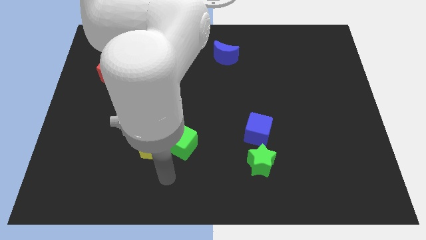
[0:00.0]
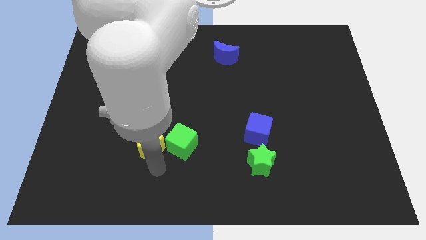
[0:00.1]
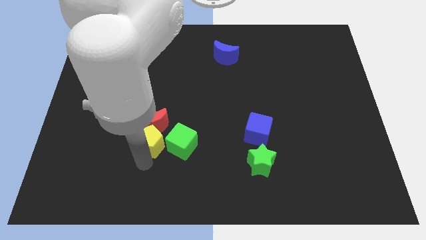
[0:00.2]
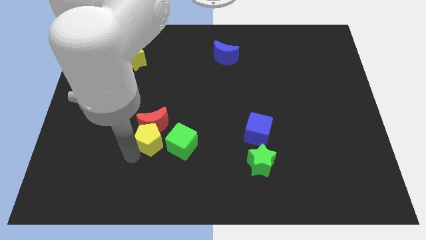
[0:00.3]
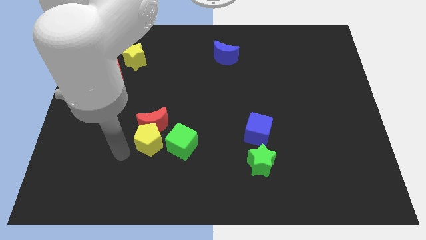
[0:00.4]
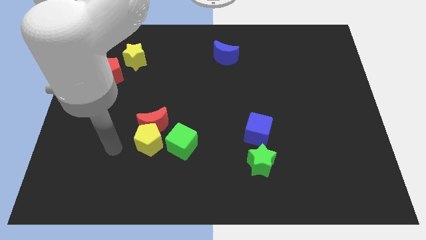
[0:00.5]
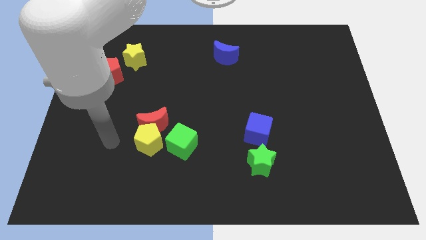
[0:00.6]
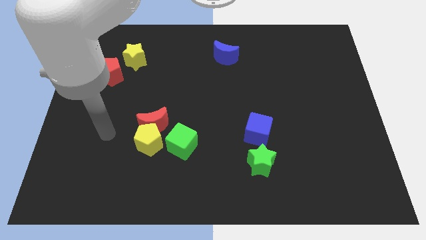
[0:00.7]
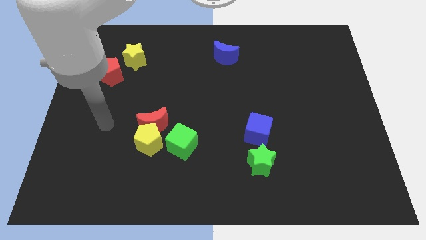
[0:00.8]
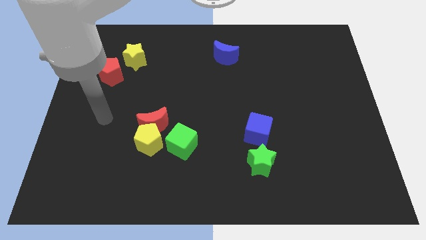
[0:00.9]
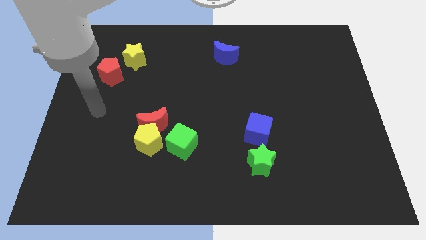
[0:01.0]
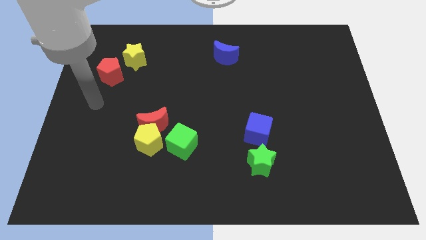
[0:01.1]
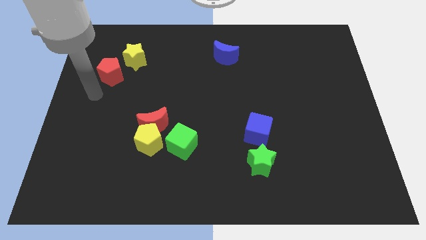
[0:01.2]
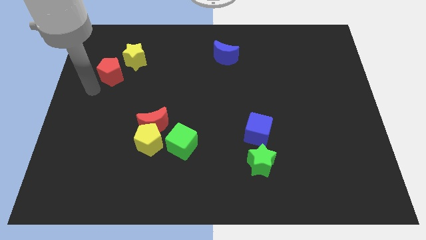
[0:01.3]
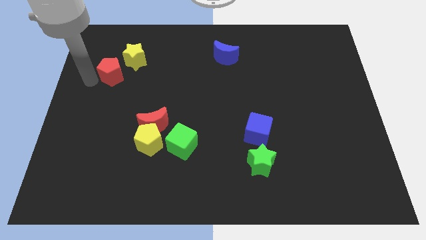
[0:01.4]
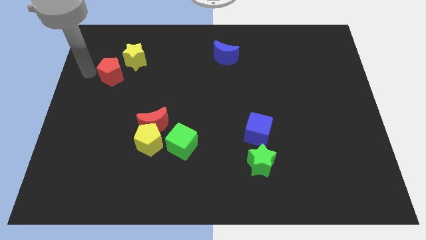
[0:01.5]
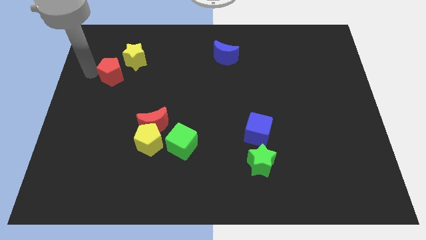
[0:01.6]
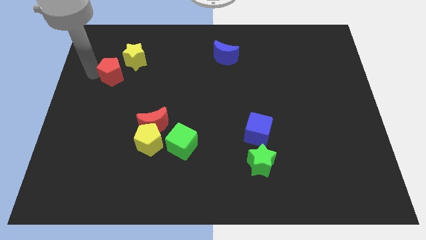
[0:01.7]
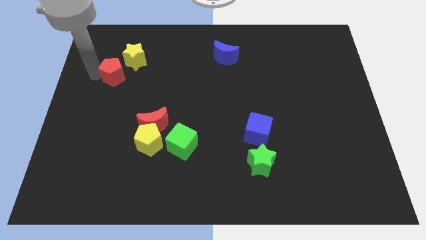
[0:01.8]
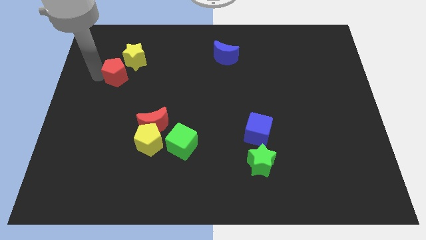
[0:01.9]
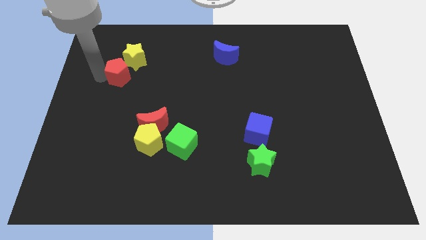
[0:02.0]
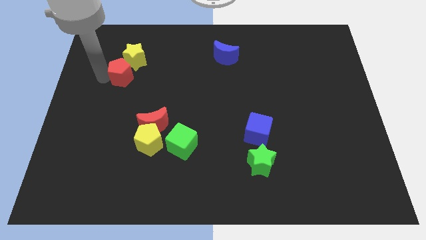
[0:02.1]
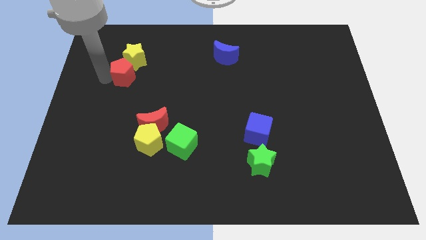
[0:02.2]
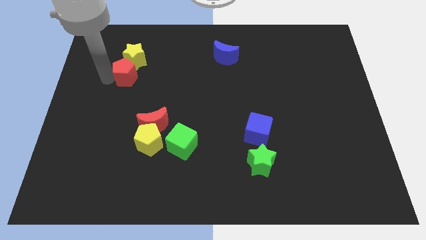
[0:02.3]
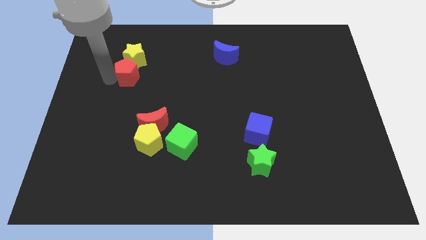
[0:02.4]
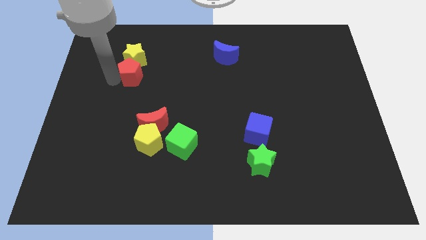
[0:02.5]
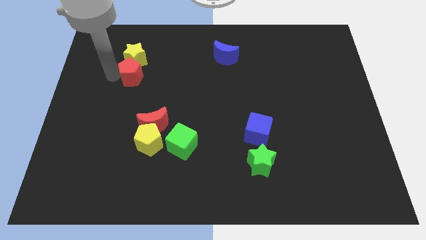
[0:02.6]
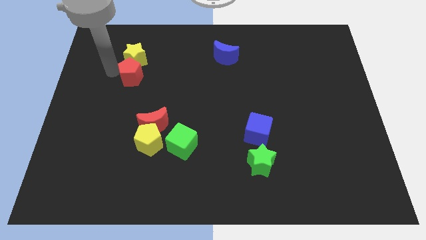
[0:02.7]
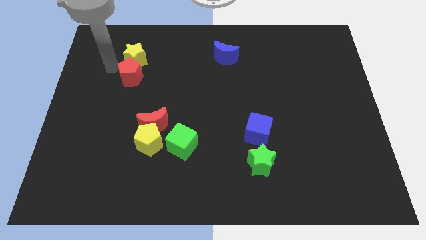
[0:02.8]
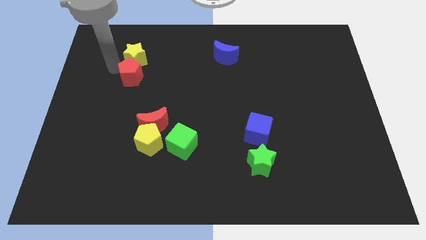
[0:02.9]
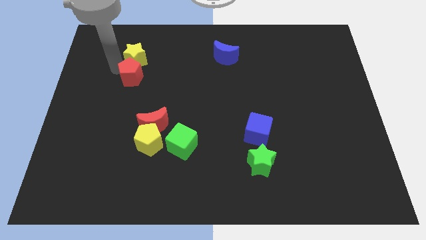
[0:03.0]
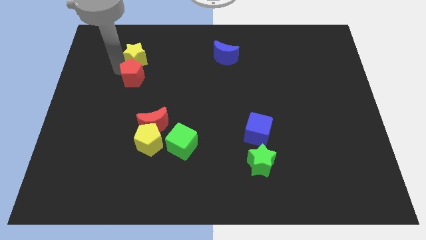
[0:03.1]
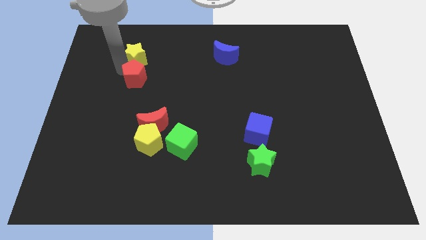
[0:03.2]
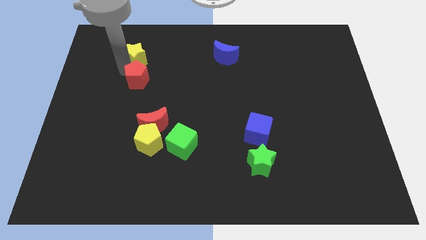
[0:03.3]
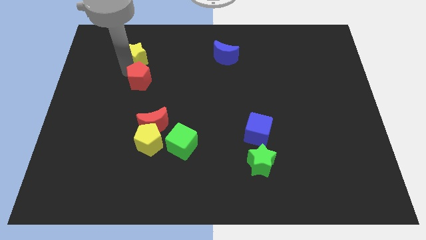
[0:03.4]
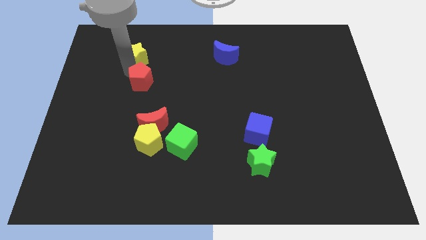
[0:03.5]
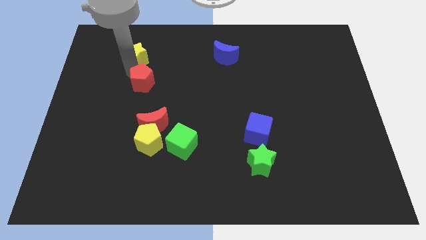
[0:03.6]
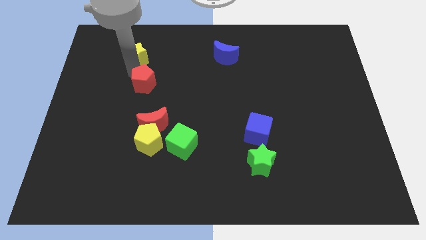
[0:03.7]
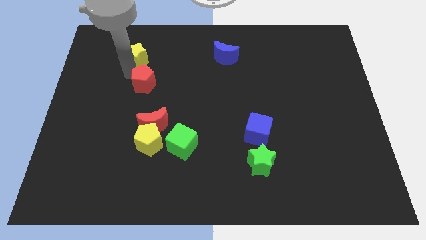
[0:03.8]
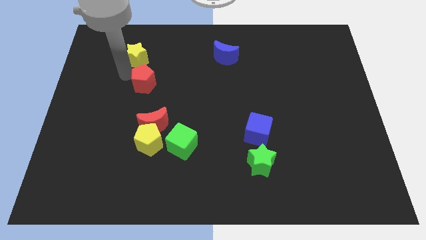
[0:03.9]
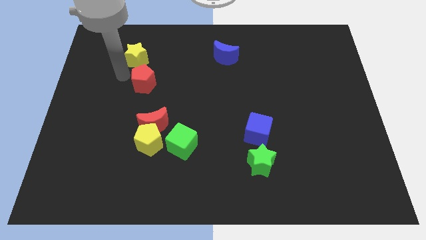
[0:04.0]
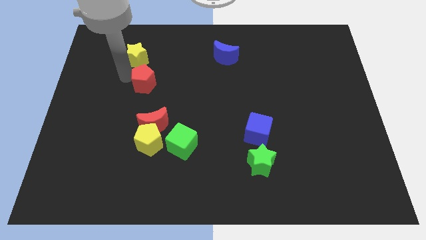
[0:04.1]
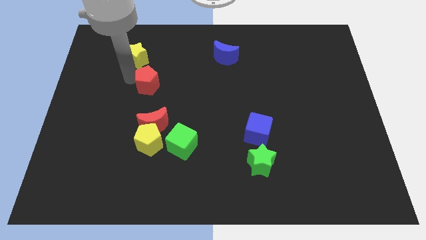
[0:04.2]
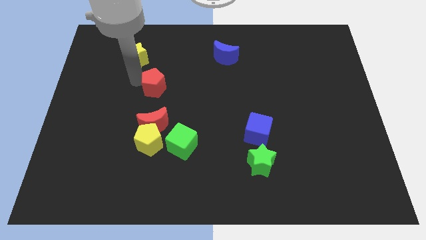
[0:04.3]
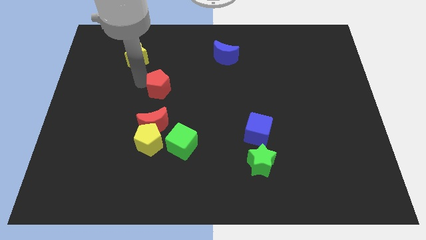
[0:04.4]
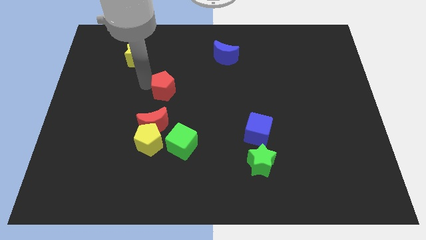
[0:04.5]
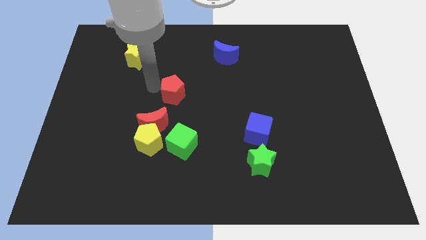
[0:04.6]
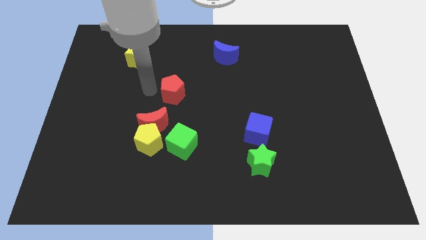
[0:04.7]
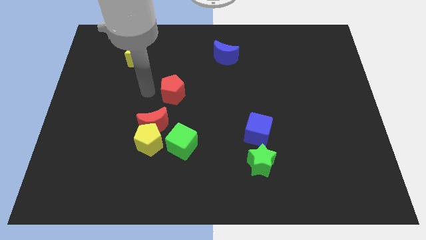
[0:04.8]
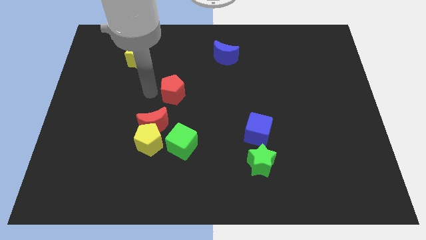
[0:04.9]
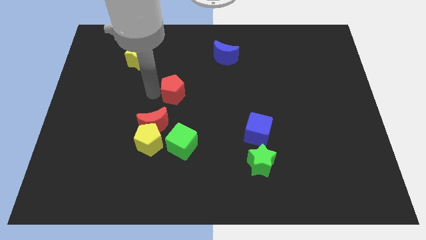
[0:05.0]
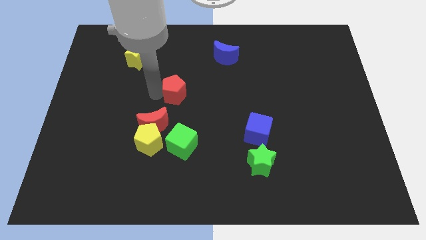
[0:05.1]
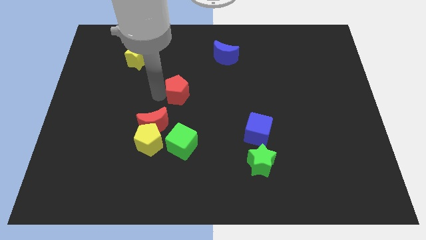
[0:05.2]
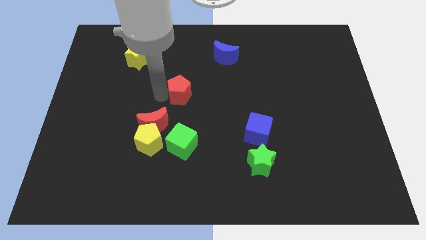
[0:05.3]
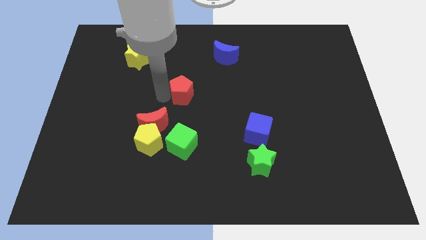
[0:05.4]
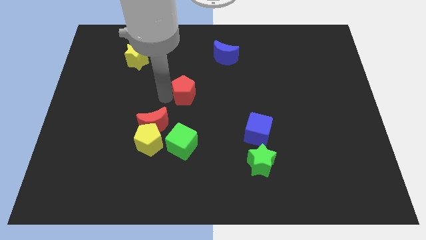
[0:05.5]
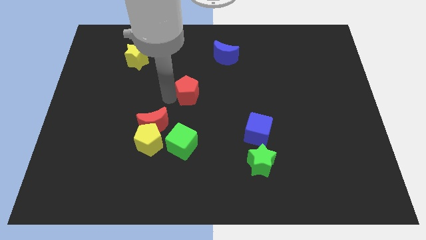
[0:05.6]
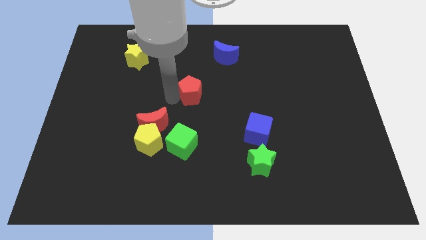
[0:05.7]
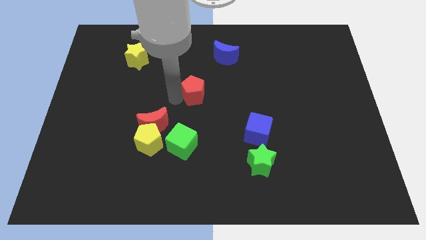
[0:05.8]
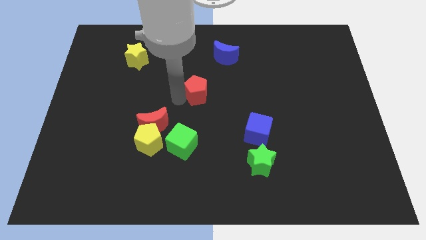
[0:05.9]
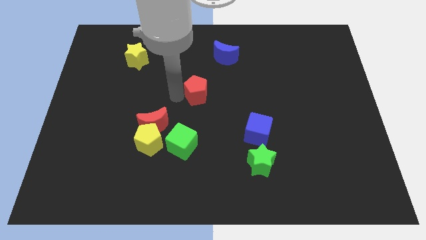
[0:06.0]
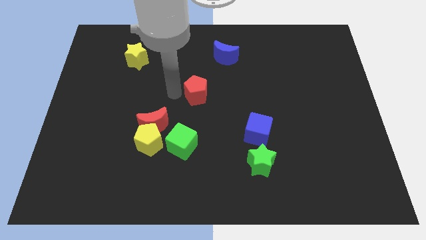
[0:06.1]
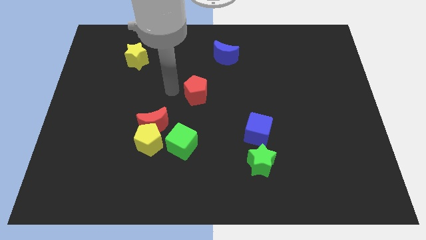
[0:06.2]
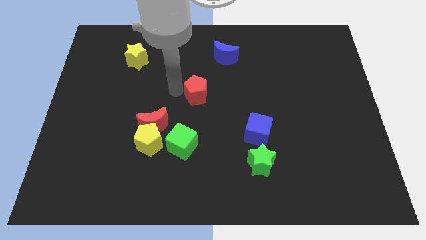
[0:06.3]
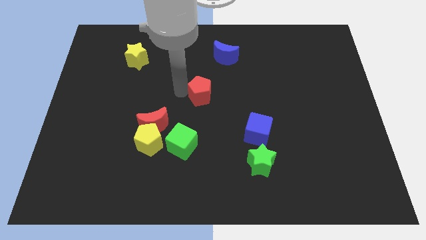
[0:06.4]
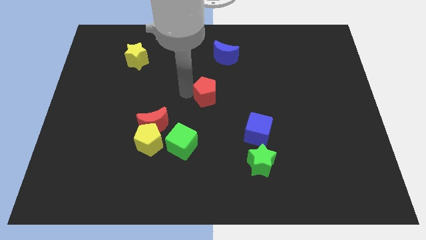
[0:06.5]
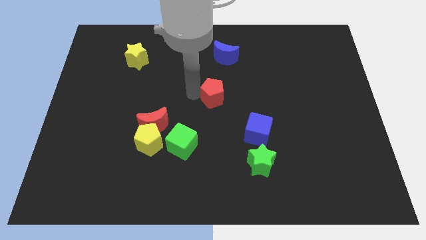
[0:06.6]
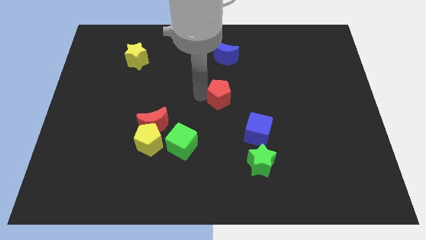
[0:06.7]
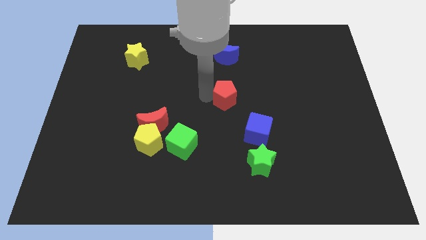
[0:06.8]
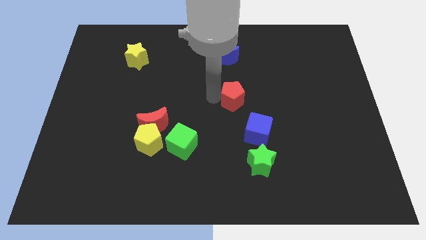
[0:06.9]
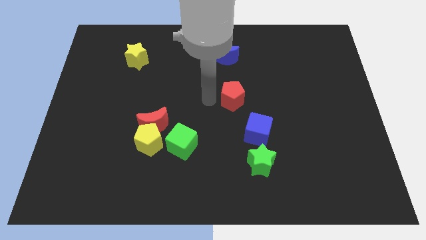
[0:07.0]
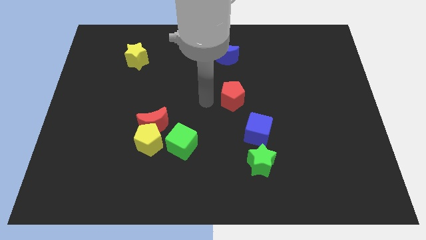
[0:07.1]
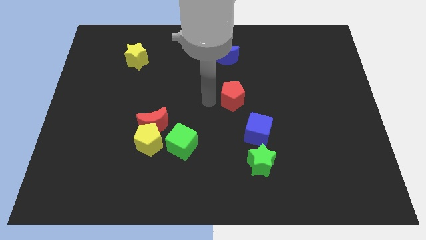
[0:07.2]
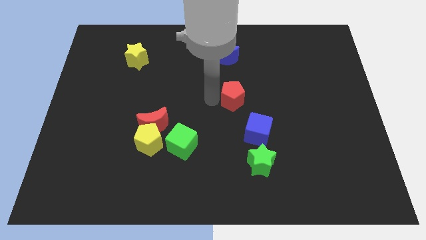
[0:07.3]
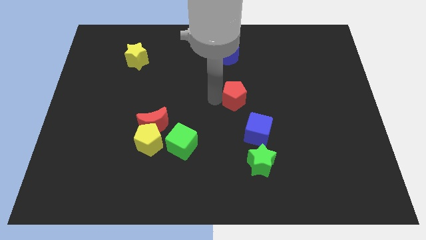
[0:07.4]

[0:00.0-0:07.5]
push the red pentagon to the top side of the blue cube

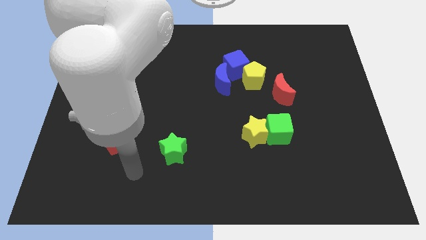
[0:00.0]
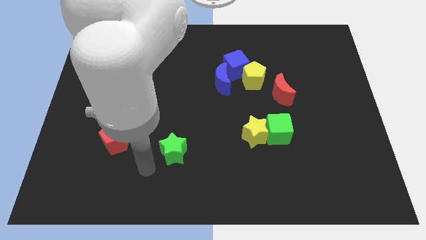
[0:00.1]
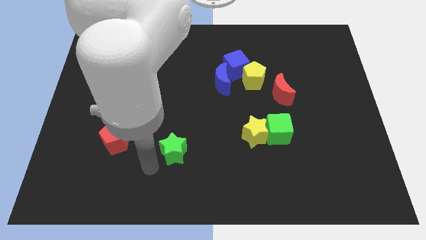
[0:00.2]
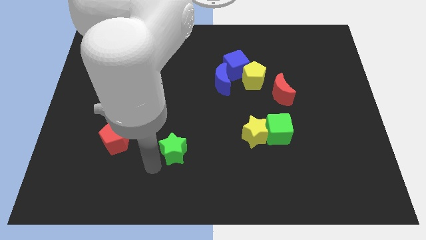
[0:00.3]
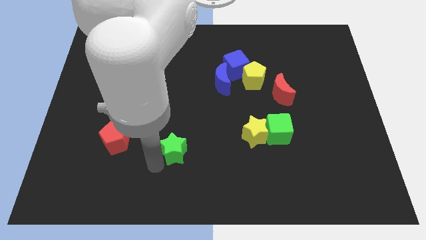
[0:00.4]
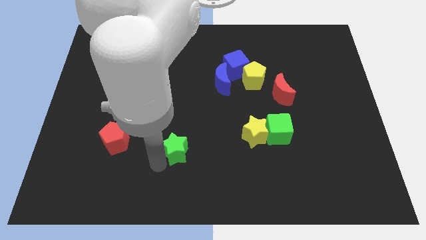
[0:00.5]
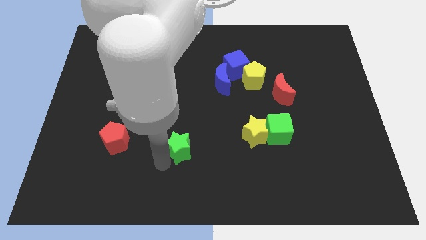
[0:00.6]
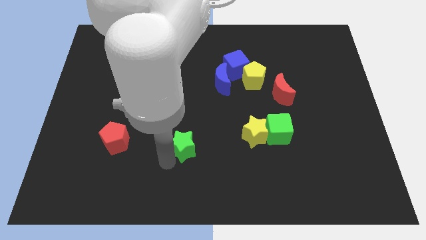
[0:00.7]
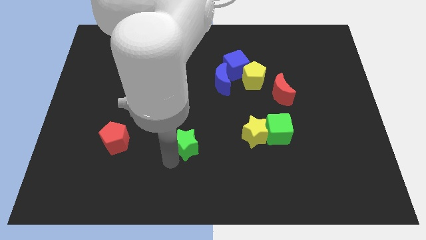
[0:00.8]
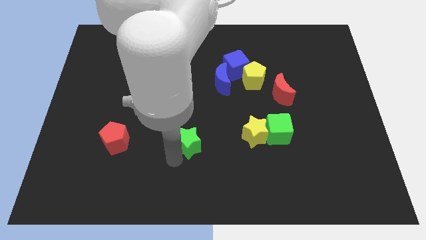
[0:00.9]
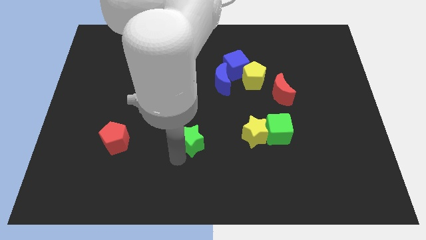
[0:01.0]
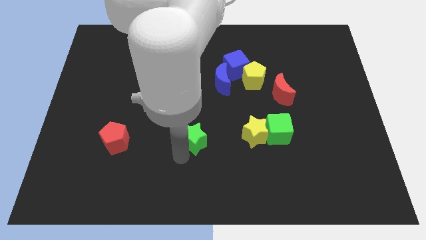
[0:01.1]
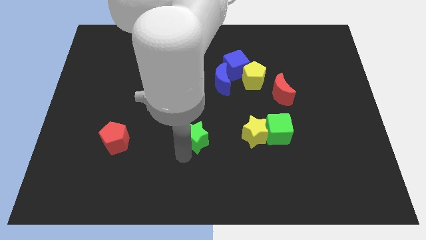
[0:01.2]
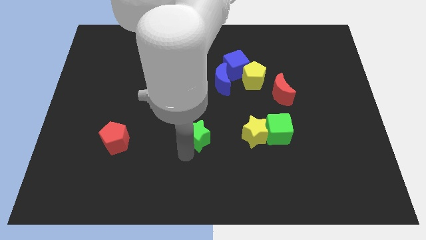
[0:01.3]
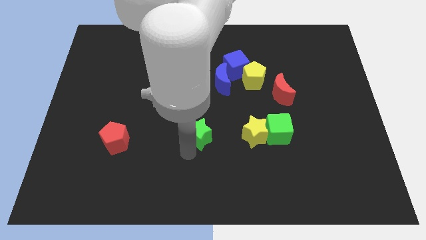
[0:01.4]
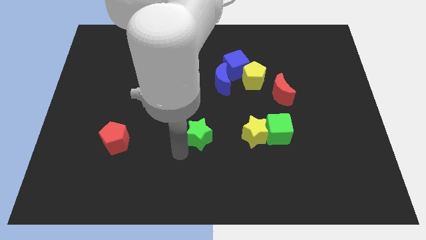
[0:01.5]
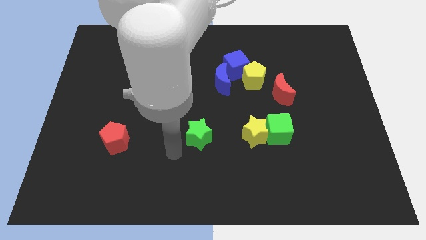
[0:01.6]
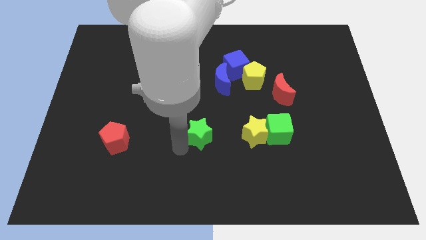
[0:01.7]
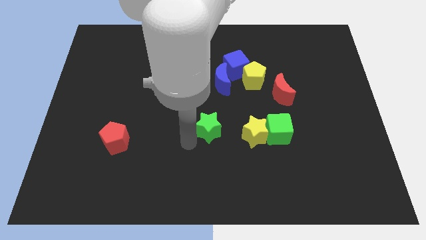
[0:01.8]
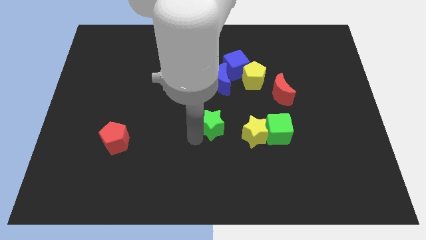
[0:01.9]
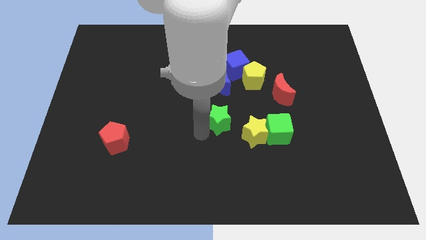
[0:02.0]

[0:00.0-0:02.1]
slide the green star diagonally up and to the left of the yellow star
